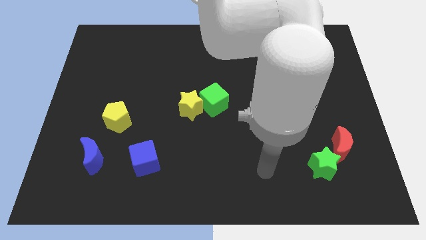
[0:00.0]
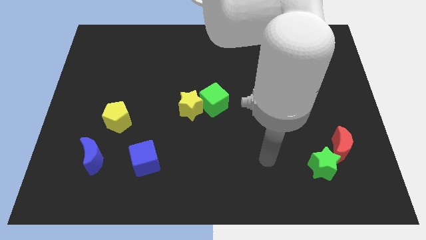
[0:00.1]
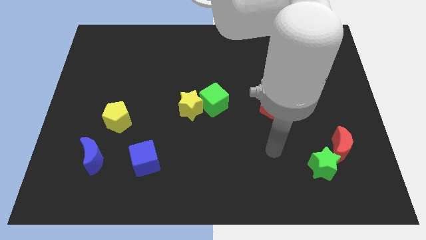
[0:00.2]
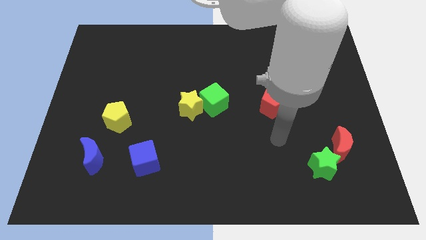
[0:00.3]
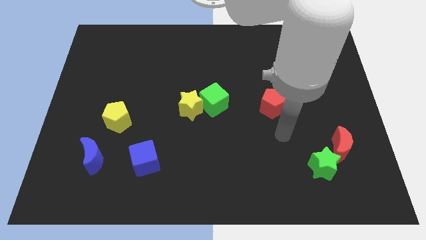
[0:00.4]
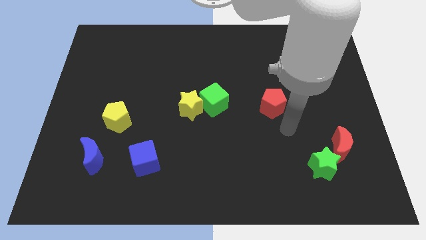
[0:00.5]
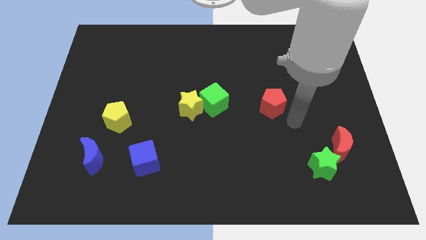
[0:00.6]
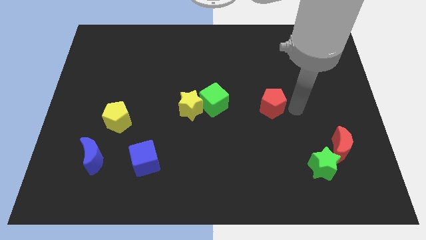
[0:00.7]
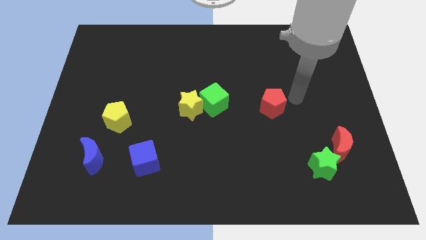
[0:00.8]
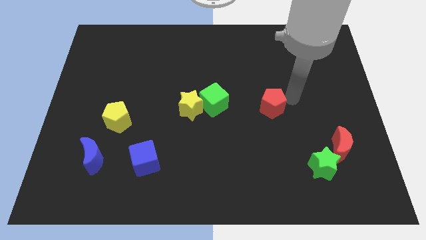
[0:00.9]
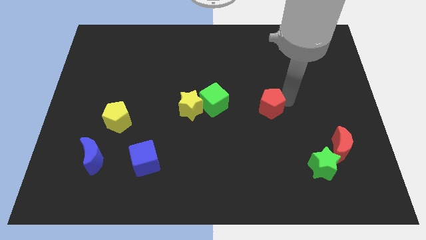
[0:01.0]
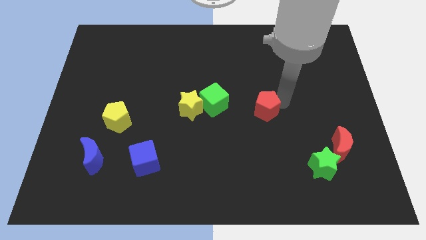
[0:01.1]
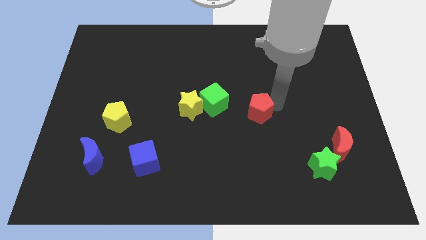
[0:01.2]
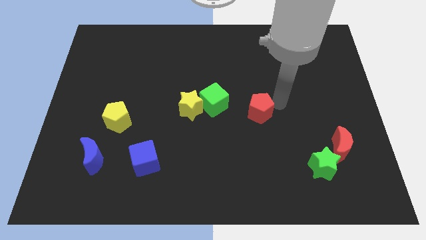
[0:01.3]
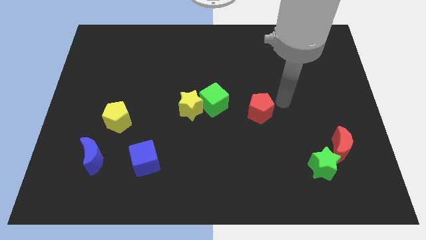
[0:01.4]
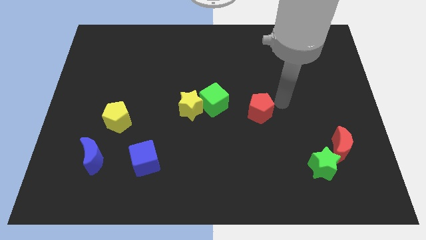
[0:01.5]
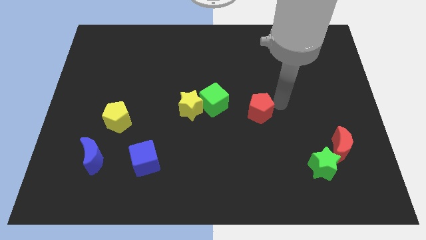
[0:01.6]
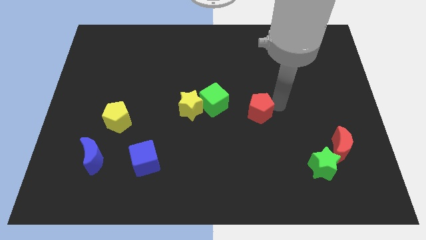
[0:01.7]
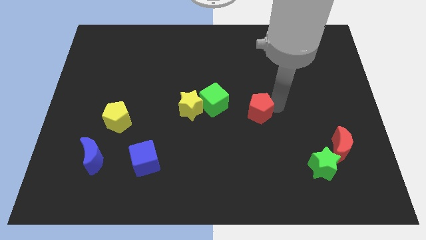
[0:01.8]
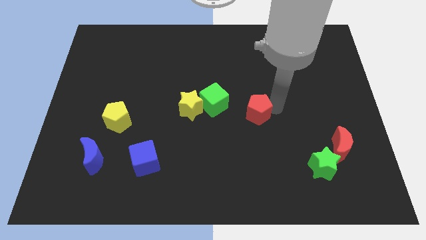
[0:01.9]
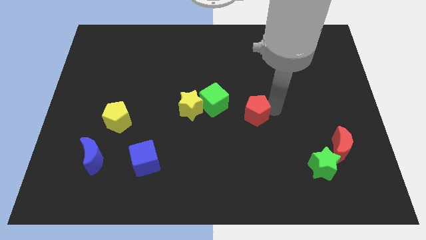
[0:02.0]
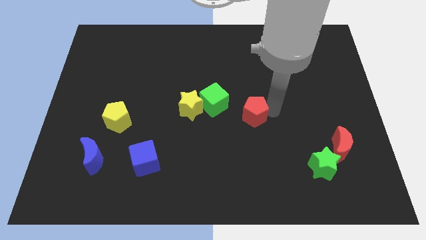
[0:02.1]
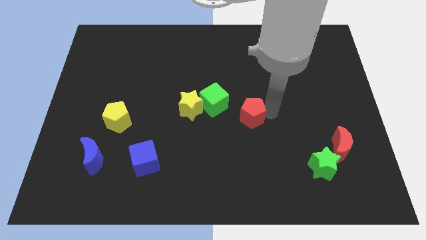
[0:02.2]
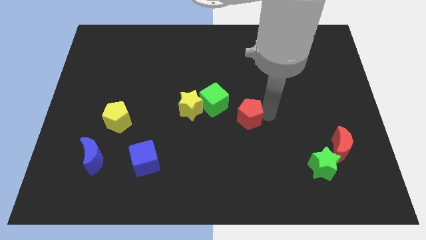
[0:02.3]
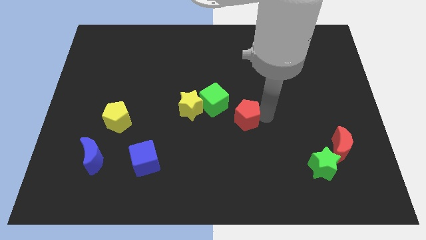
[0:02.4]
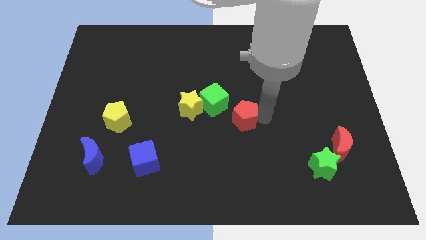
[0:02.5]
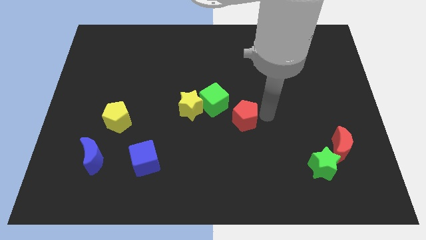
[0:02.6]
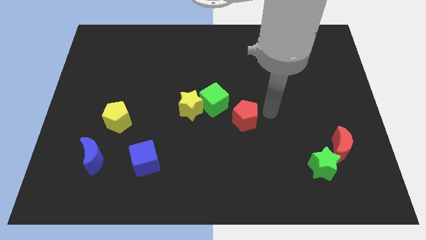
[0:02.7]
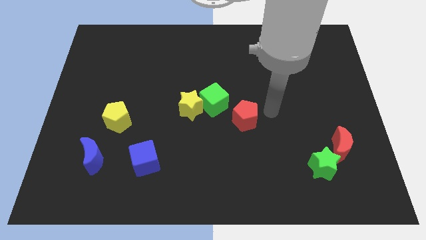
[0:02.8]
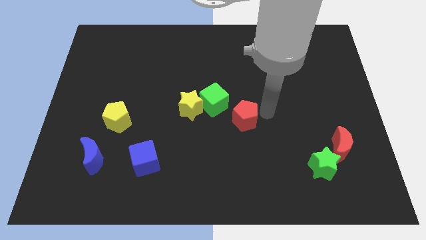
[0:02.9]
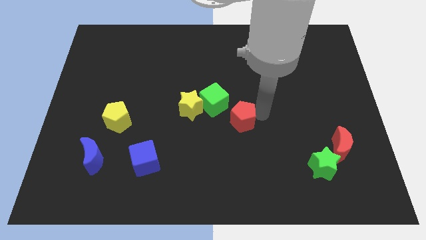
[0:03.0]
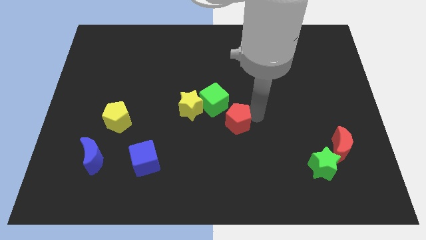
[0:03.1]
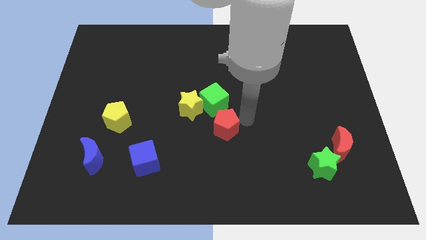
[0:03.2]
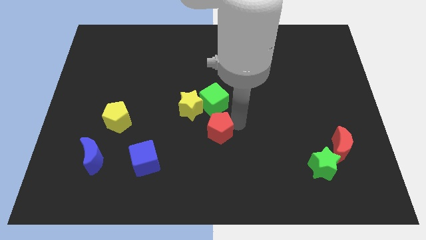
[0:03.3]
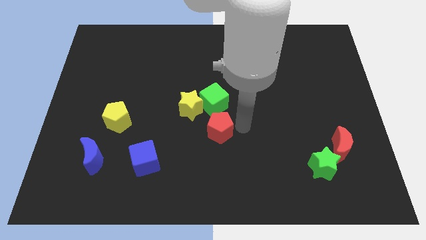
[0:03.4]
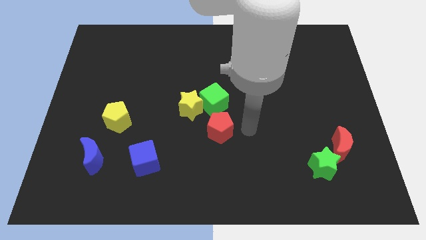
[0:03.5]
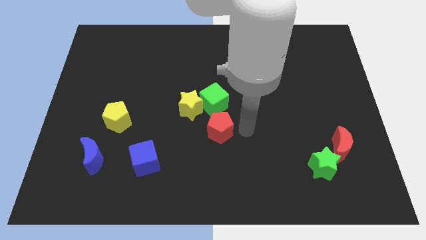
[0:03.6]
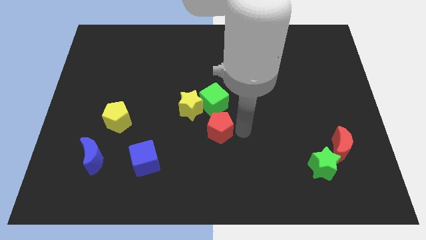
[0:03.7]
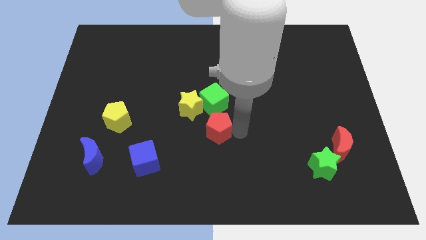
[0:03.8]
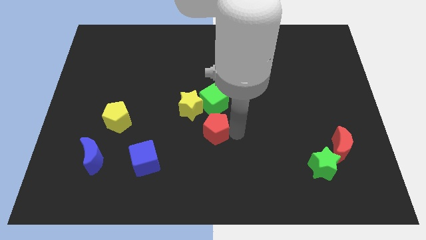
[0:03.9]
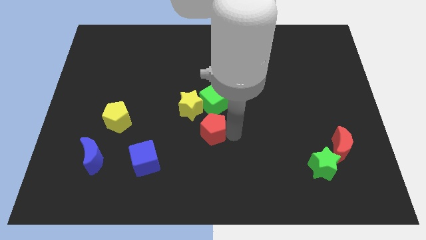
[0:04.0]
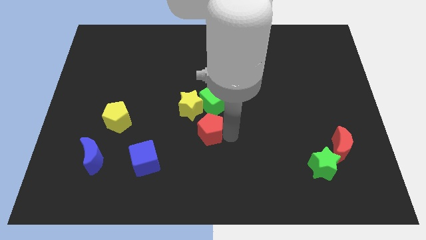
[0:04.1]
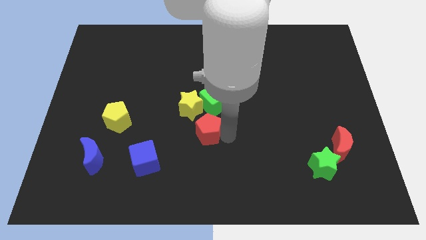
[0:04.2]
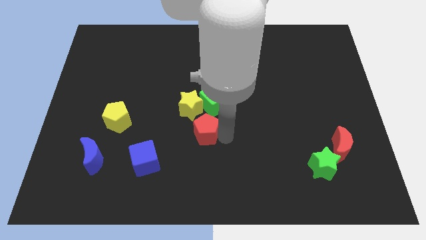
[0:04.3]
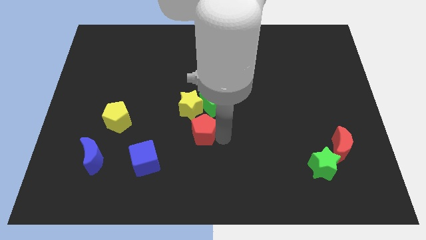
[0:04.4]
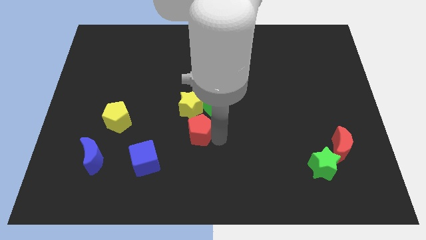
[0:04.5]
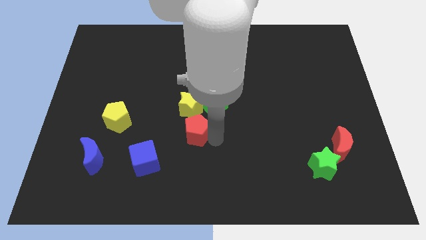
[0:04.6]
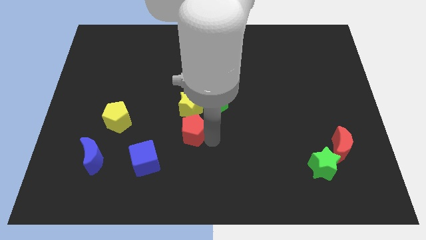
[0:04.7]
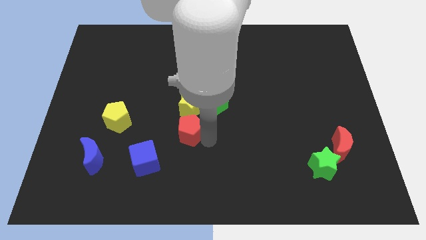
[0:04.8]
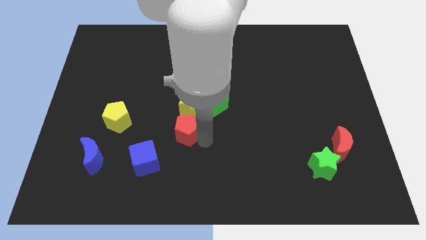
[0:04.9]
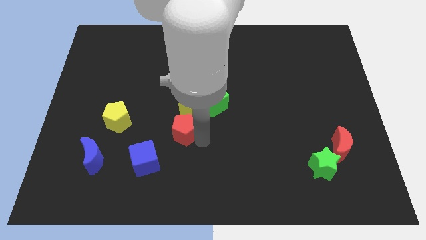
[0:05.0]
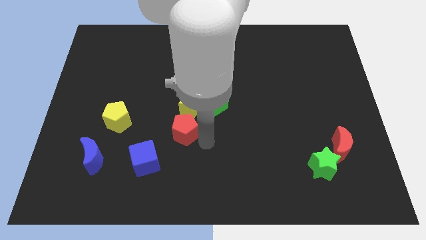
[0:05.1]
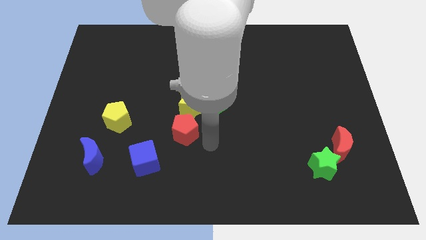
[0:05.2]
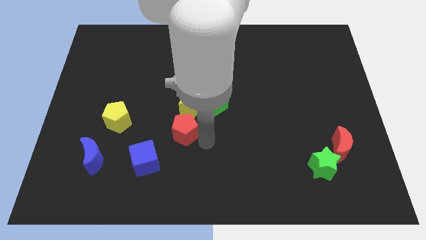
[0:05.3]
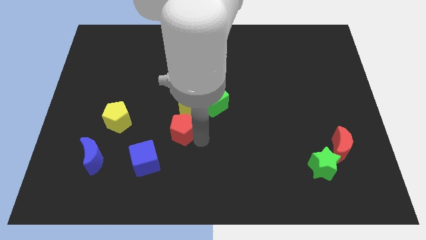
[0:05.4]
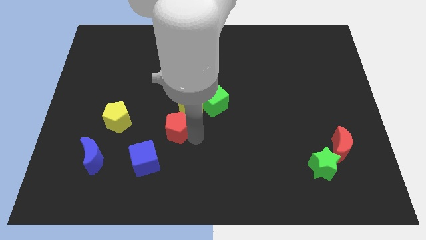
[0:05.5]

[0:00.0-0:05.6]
slide the red pentagon left

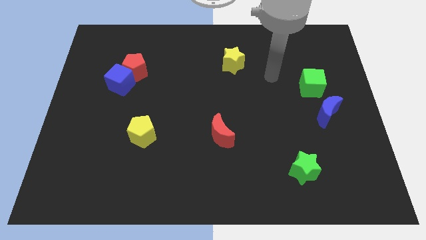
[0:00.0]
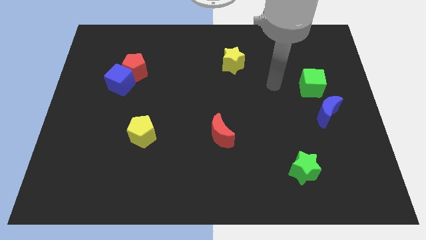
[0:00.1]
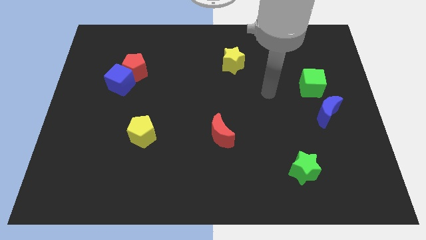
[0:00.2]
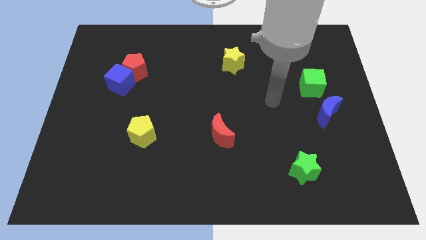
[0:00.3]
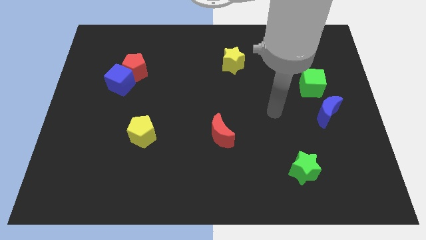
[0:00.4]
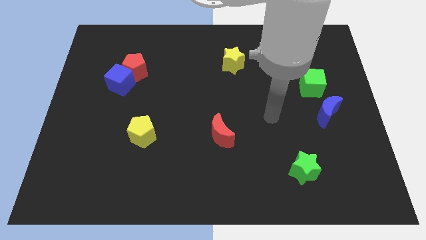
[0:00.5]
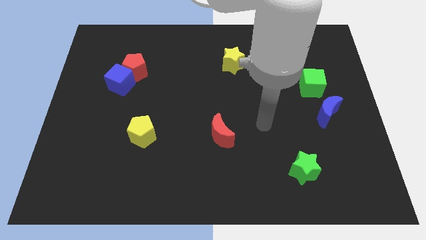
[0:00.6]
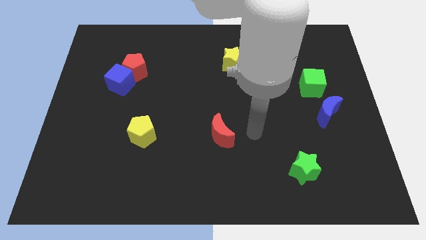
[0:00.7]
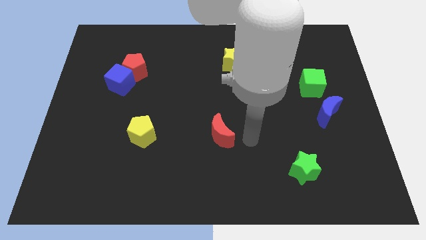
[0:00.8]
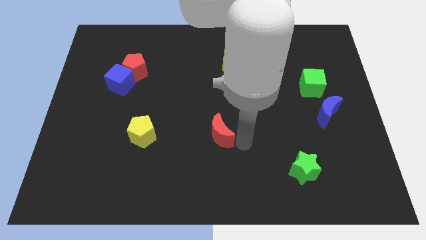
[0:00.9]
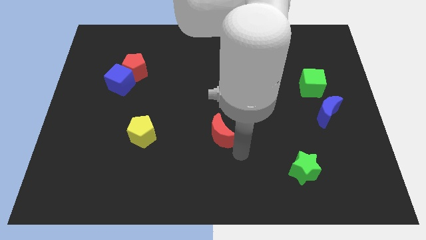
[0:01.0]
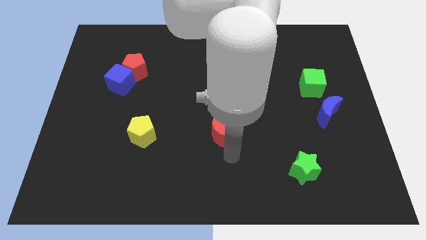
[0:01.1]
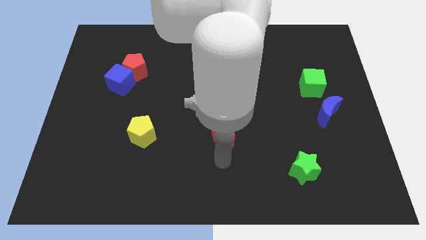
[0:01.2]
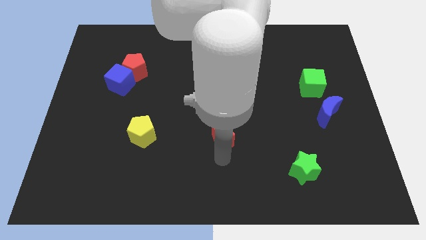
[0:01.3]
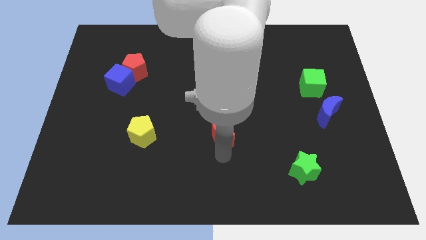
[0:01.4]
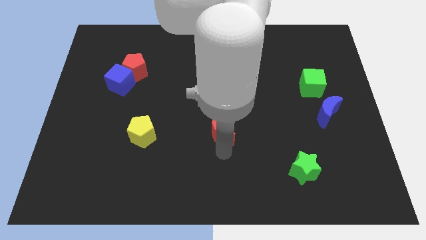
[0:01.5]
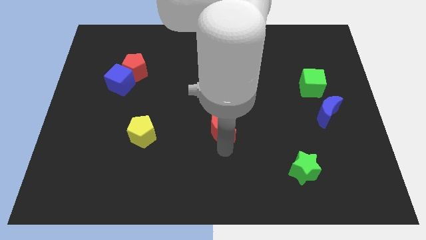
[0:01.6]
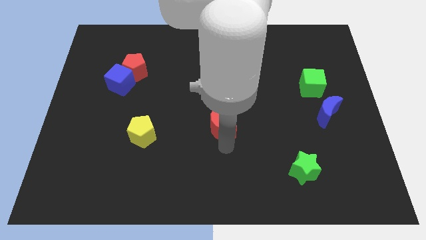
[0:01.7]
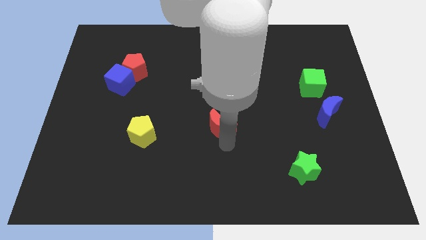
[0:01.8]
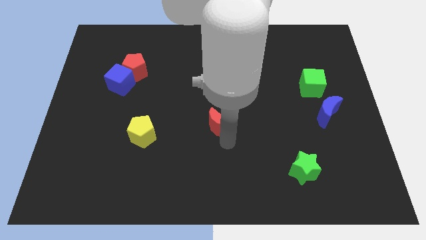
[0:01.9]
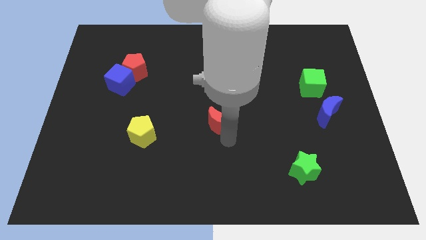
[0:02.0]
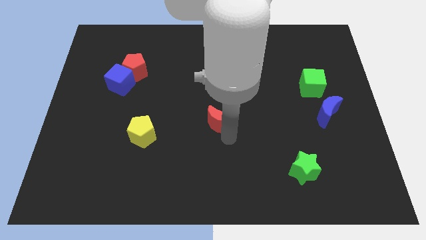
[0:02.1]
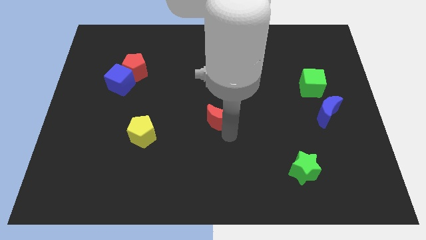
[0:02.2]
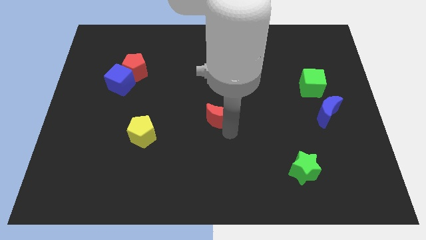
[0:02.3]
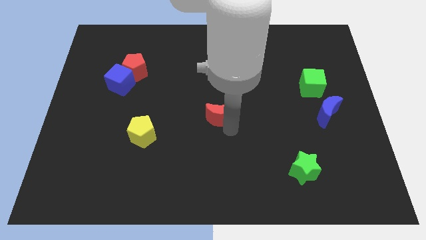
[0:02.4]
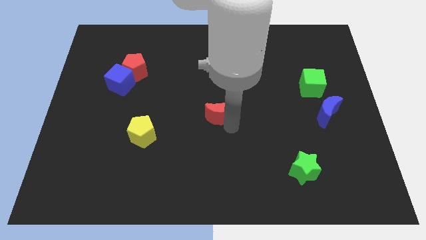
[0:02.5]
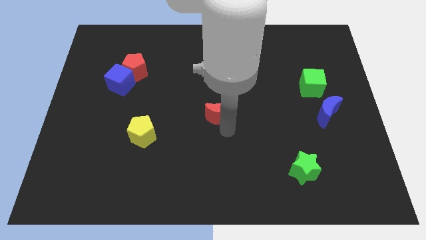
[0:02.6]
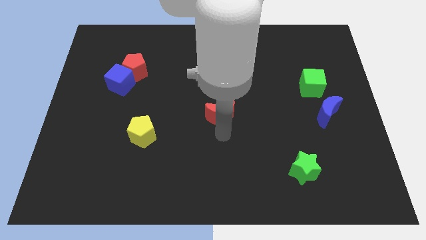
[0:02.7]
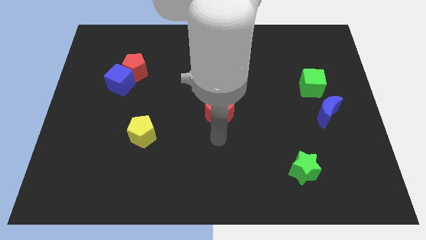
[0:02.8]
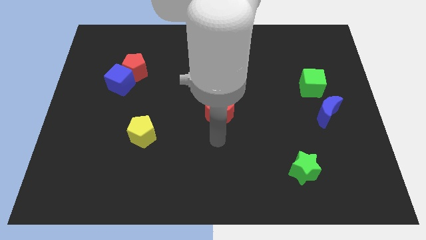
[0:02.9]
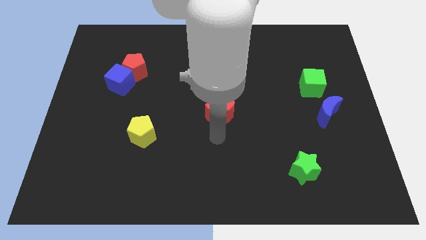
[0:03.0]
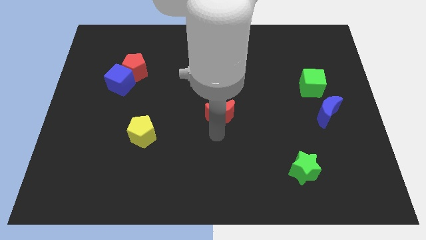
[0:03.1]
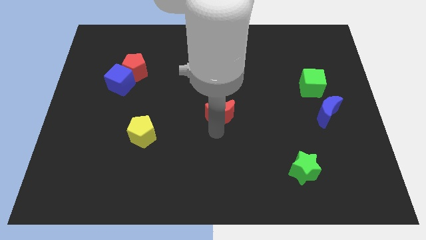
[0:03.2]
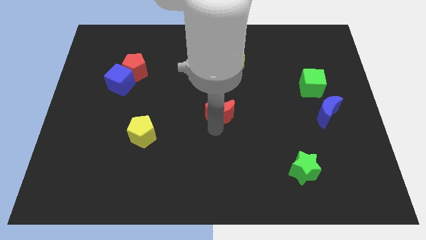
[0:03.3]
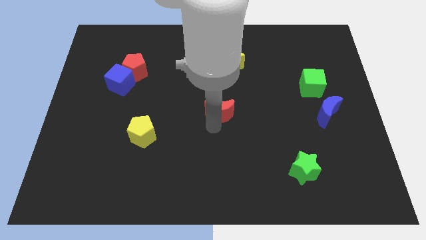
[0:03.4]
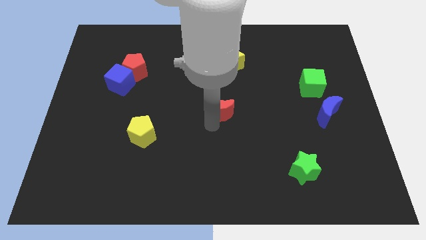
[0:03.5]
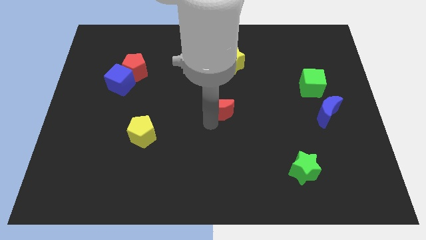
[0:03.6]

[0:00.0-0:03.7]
slightly slide the red moon up
